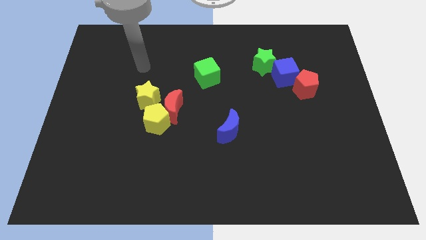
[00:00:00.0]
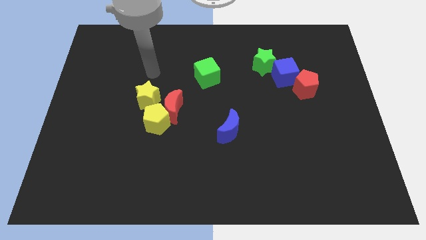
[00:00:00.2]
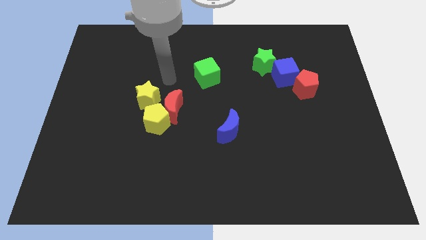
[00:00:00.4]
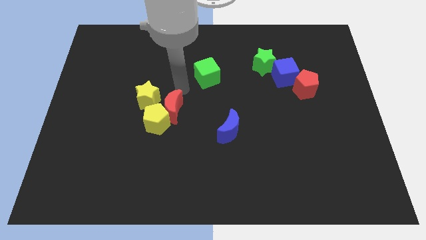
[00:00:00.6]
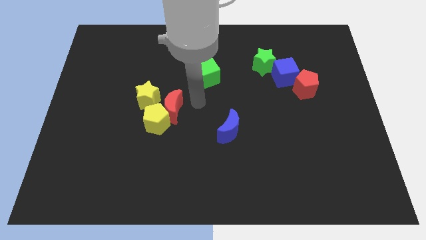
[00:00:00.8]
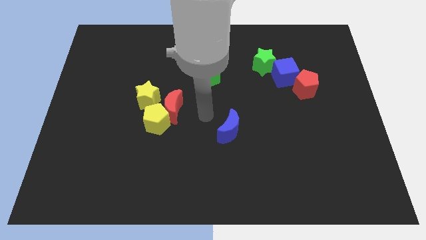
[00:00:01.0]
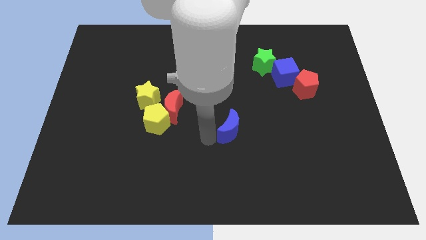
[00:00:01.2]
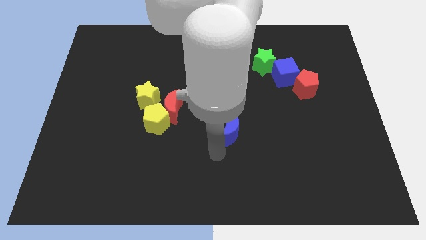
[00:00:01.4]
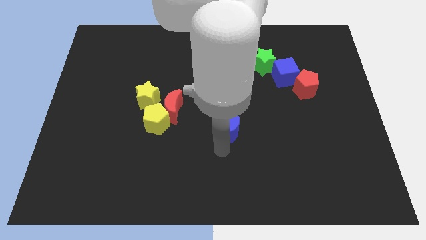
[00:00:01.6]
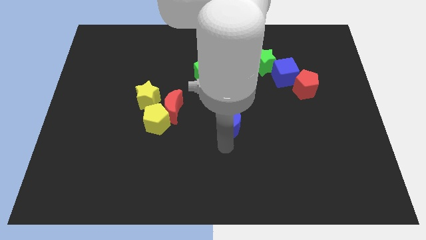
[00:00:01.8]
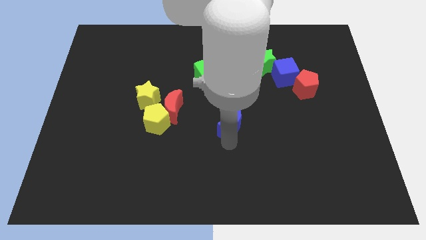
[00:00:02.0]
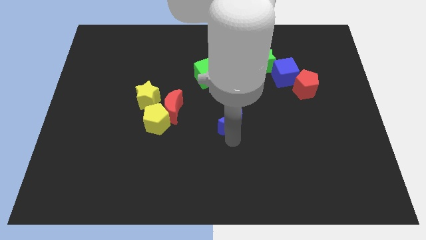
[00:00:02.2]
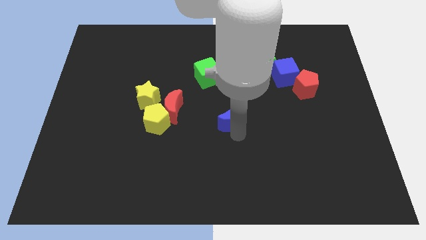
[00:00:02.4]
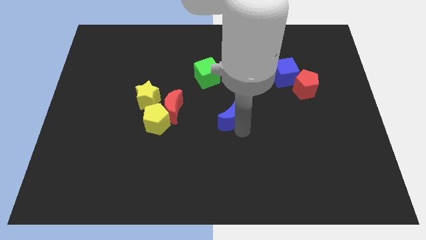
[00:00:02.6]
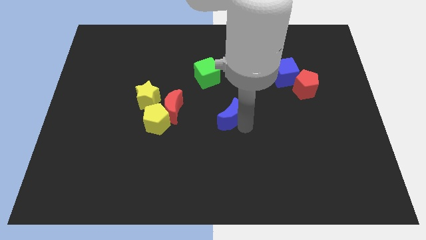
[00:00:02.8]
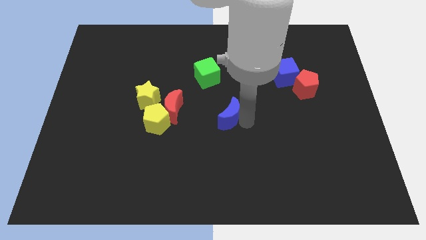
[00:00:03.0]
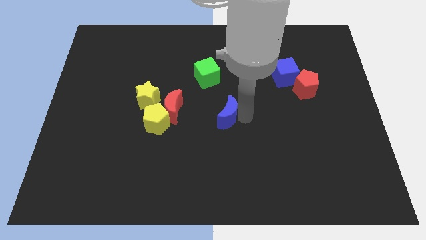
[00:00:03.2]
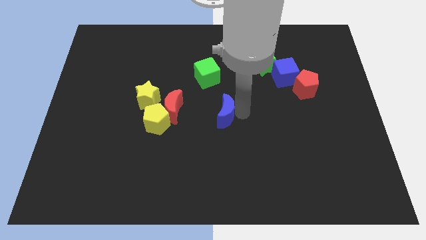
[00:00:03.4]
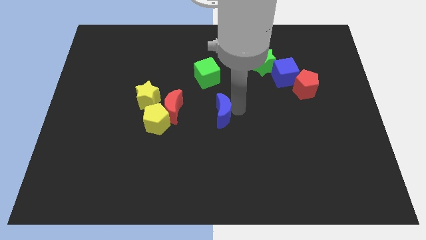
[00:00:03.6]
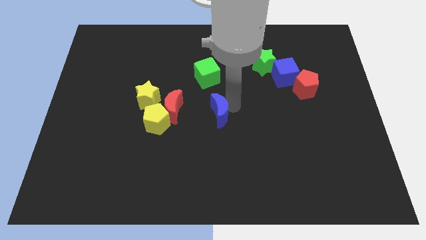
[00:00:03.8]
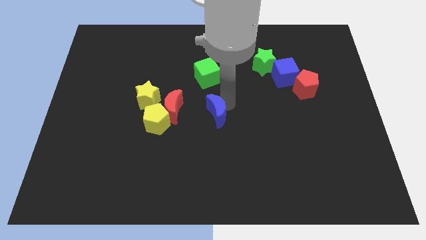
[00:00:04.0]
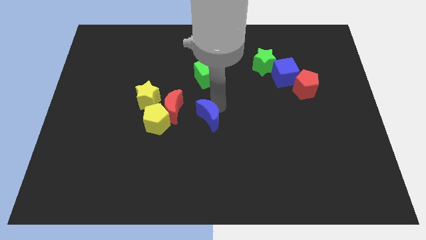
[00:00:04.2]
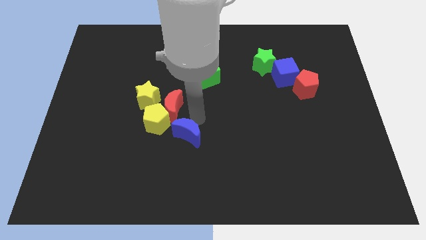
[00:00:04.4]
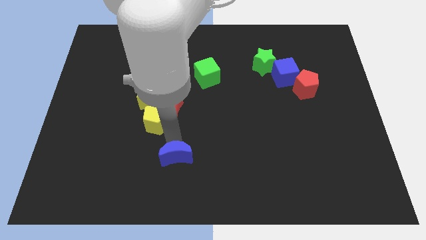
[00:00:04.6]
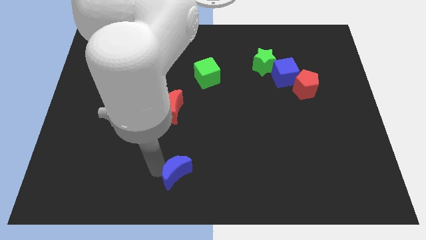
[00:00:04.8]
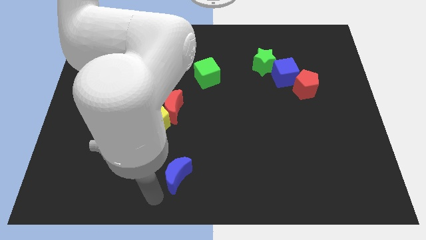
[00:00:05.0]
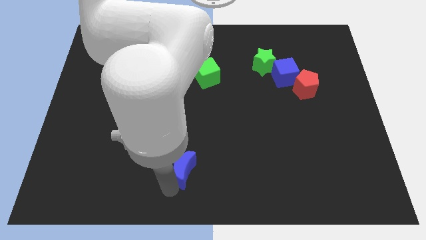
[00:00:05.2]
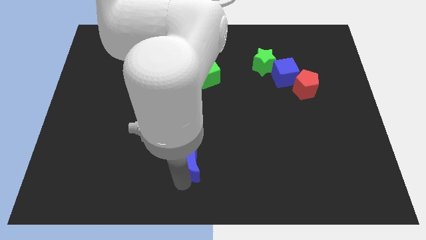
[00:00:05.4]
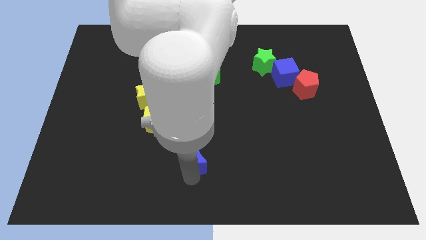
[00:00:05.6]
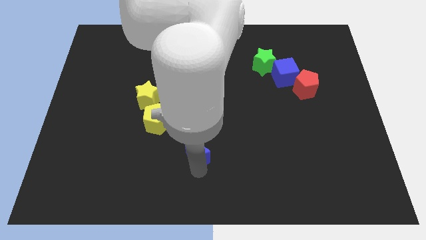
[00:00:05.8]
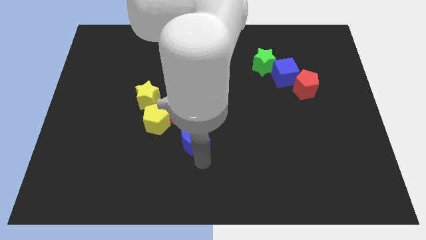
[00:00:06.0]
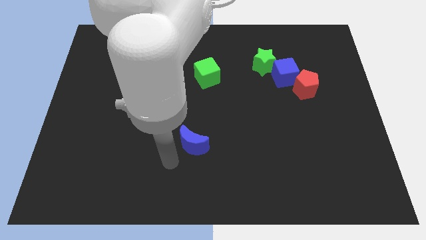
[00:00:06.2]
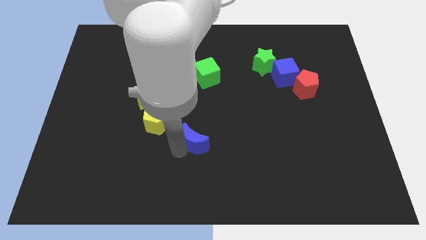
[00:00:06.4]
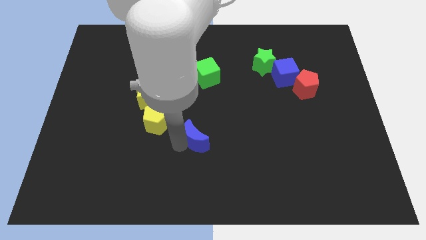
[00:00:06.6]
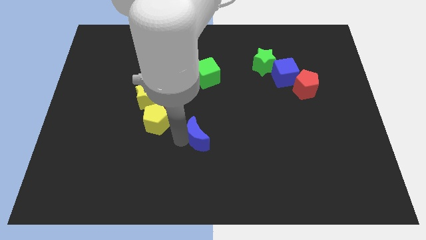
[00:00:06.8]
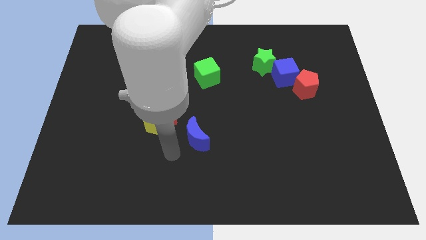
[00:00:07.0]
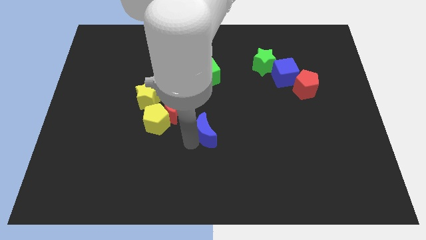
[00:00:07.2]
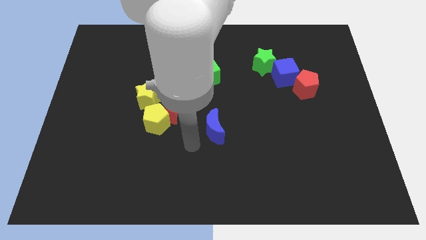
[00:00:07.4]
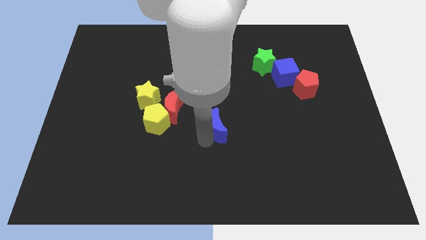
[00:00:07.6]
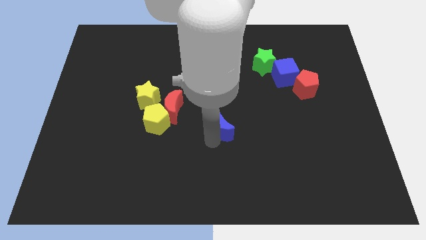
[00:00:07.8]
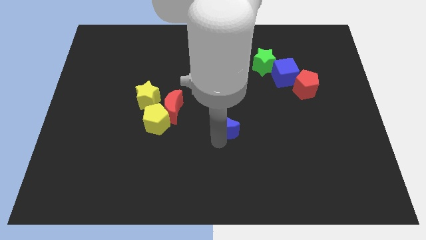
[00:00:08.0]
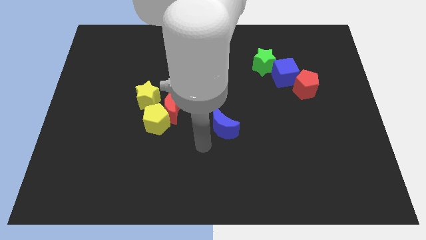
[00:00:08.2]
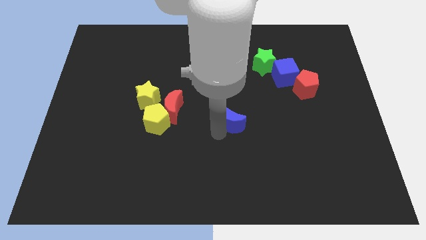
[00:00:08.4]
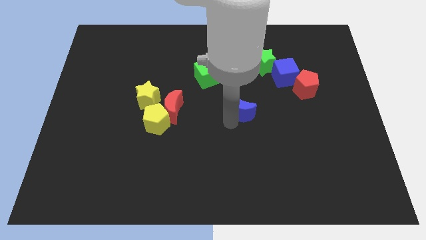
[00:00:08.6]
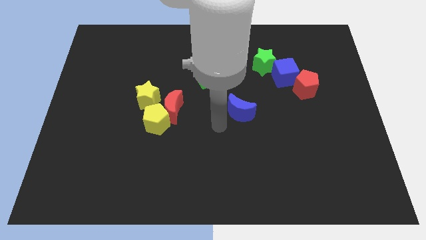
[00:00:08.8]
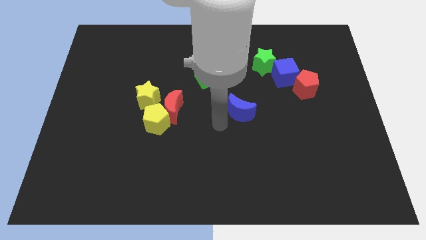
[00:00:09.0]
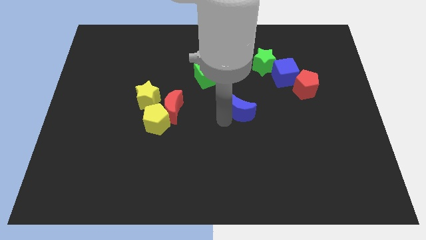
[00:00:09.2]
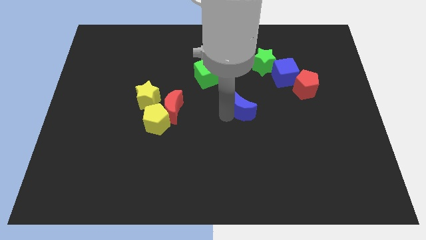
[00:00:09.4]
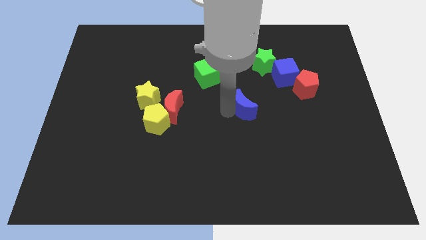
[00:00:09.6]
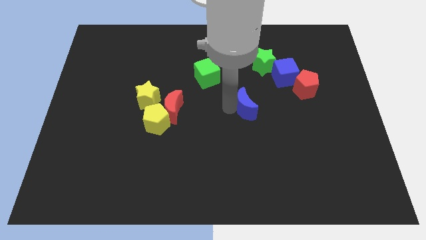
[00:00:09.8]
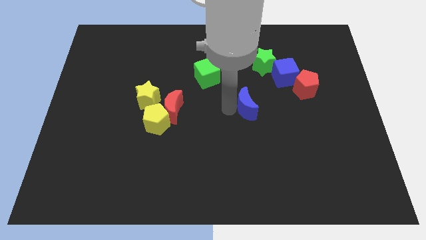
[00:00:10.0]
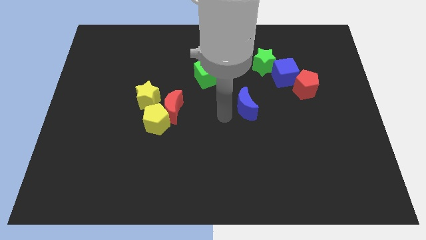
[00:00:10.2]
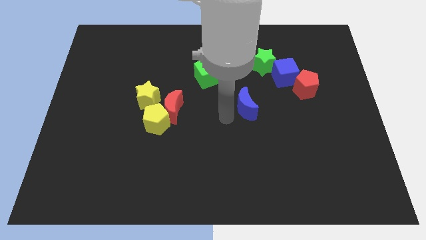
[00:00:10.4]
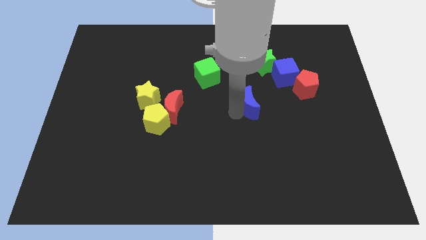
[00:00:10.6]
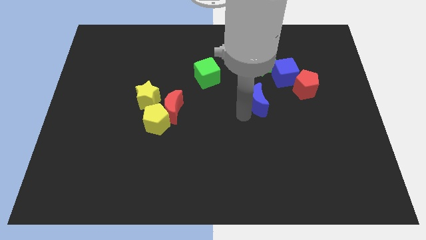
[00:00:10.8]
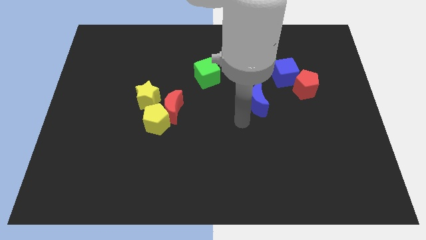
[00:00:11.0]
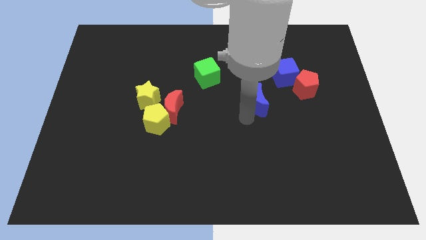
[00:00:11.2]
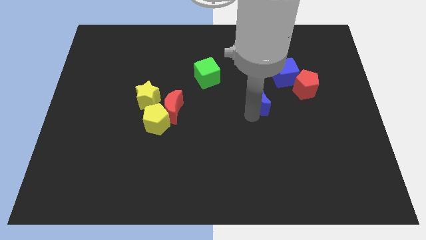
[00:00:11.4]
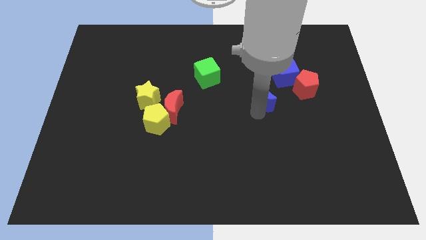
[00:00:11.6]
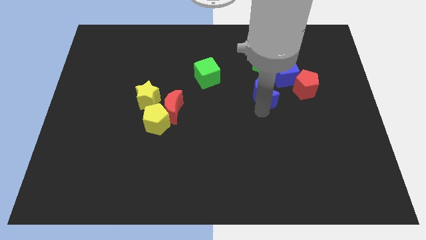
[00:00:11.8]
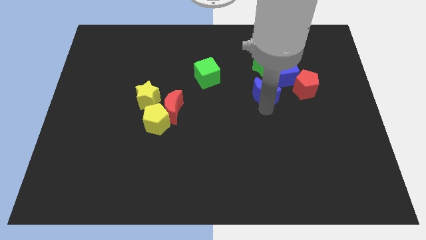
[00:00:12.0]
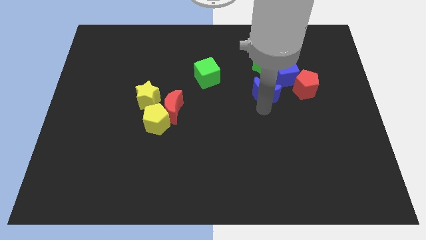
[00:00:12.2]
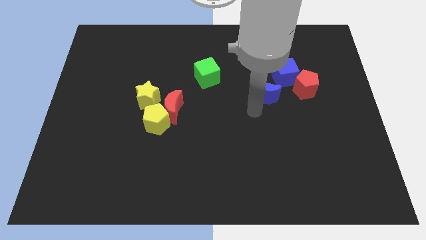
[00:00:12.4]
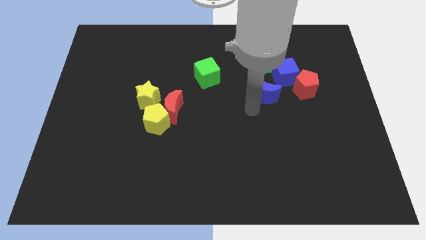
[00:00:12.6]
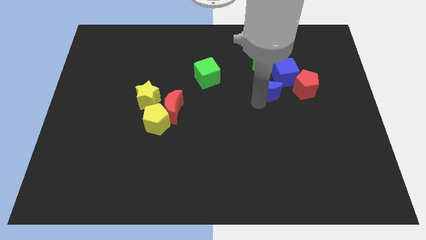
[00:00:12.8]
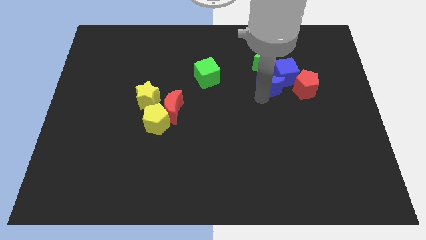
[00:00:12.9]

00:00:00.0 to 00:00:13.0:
slide the blue moon close to the blue cube
